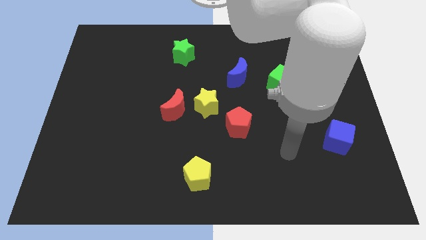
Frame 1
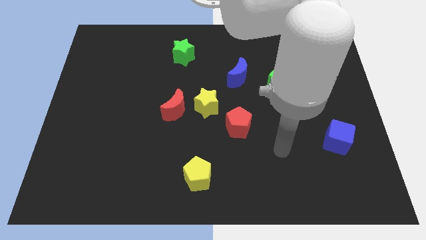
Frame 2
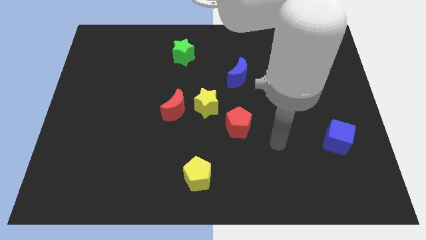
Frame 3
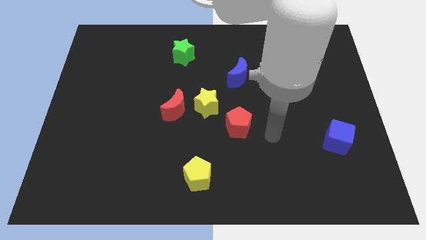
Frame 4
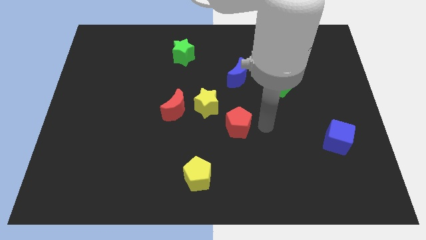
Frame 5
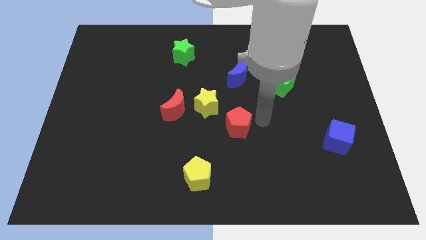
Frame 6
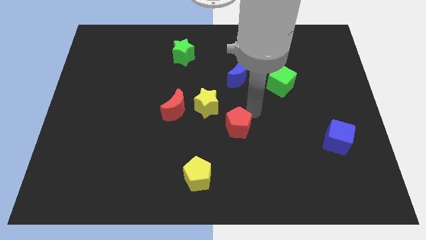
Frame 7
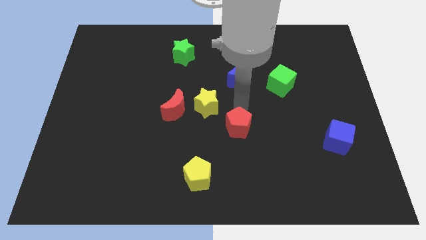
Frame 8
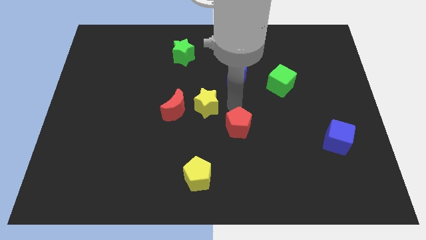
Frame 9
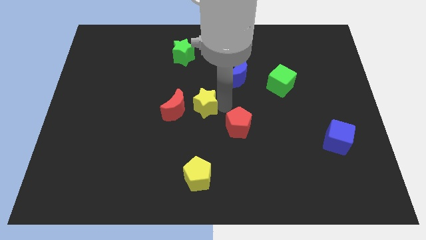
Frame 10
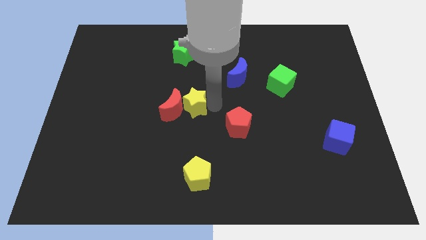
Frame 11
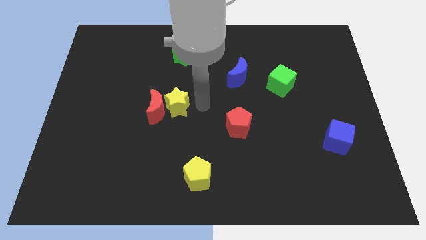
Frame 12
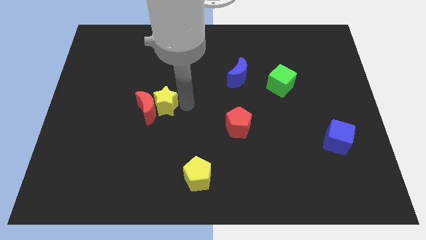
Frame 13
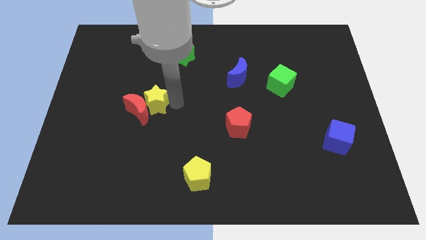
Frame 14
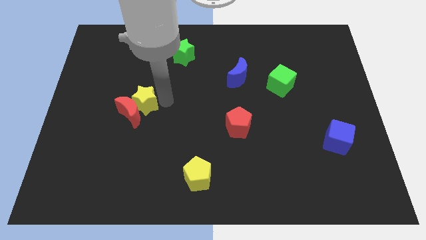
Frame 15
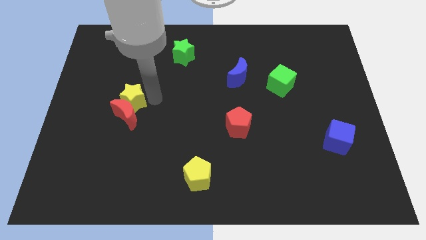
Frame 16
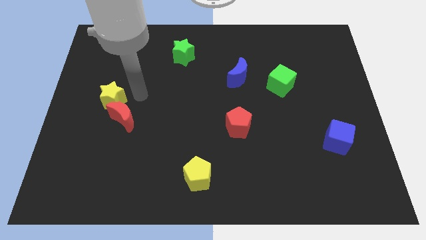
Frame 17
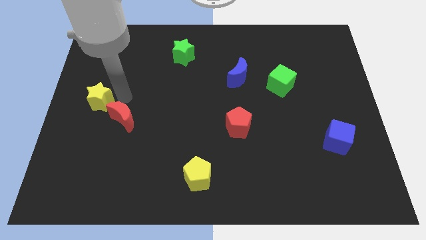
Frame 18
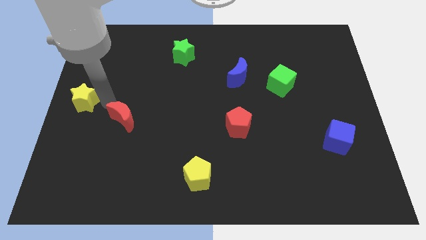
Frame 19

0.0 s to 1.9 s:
move the red moon away from the yellow star

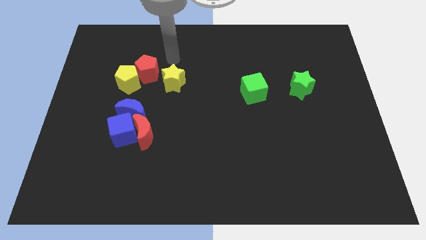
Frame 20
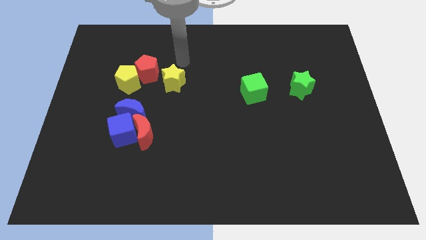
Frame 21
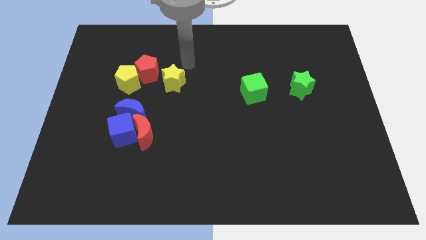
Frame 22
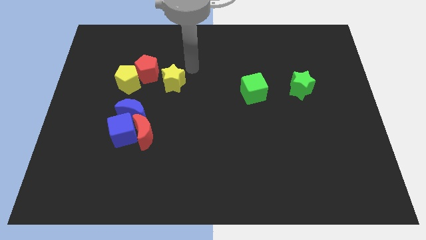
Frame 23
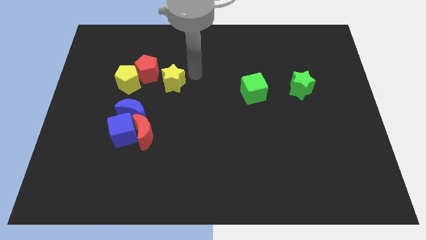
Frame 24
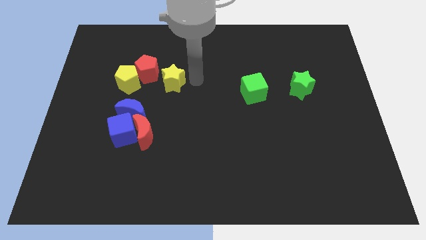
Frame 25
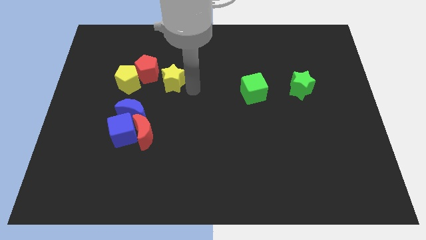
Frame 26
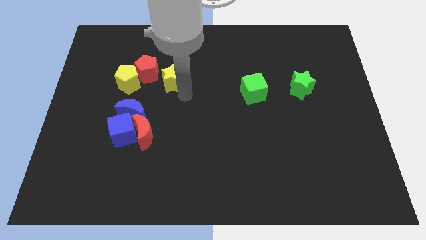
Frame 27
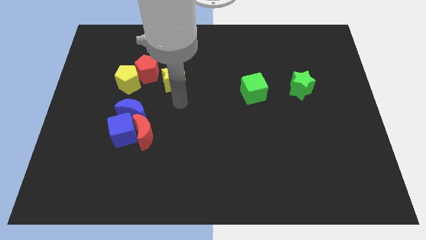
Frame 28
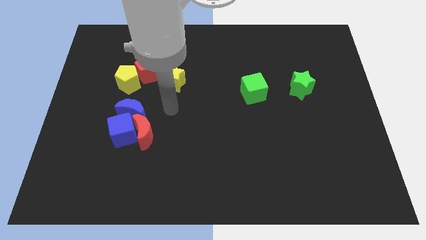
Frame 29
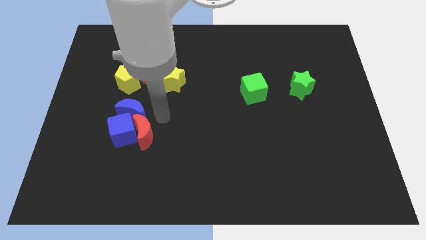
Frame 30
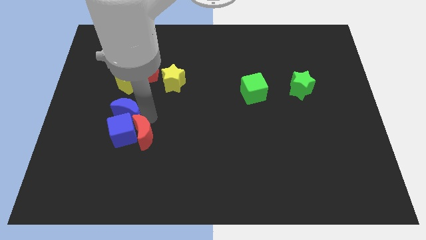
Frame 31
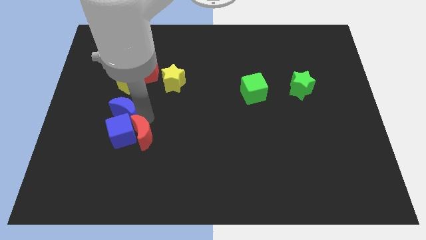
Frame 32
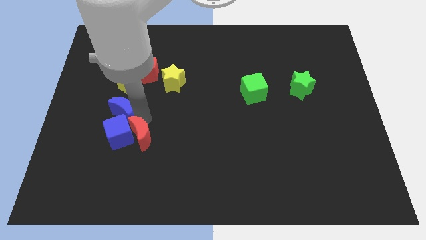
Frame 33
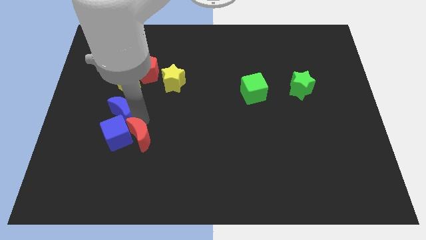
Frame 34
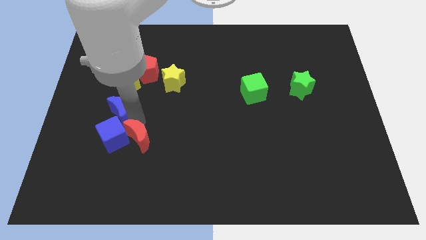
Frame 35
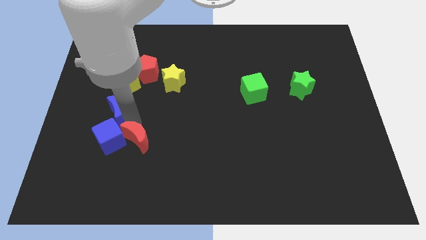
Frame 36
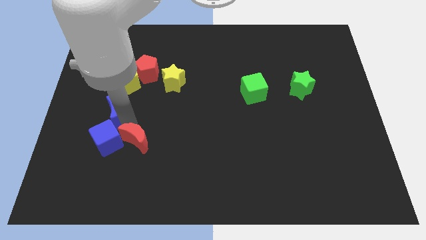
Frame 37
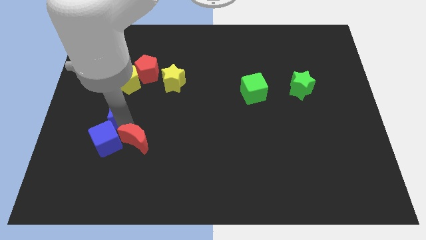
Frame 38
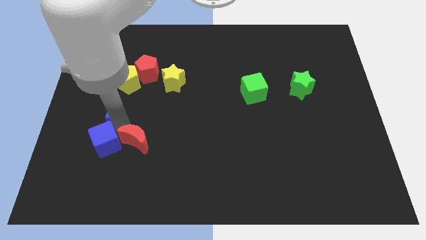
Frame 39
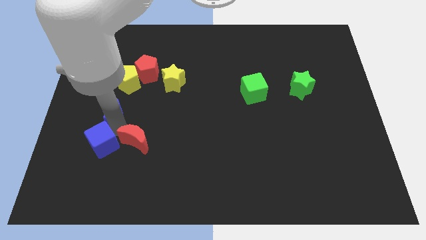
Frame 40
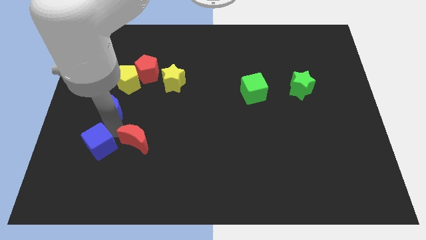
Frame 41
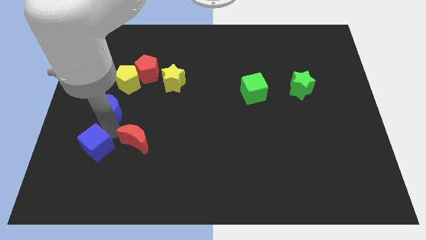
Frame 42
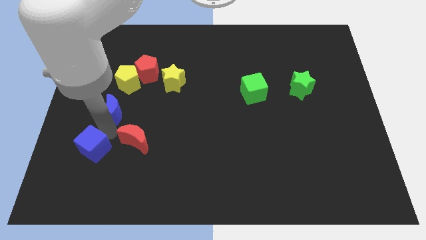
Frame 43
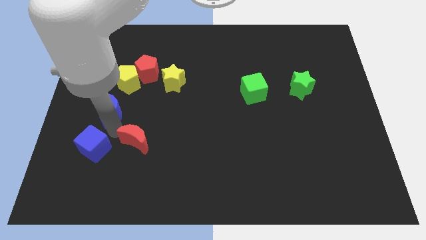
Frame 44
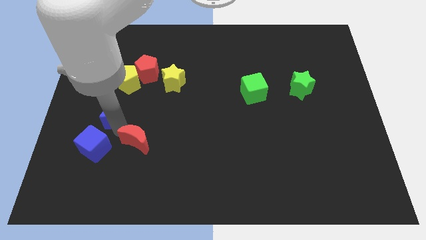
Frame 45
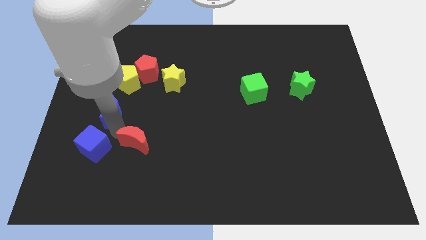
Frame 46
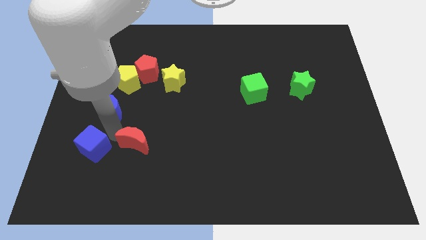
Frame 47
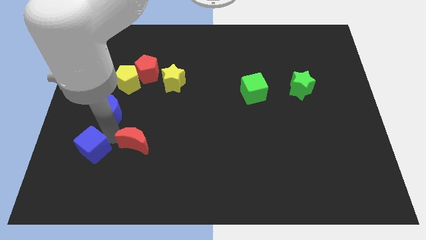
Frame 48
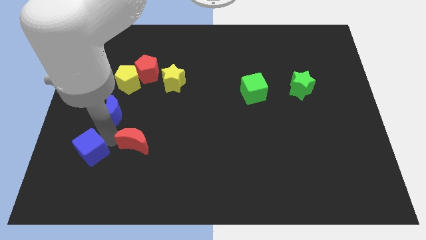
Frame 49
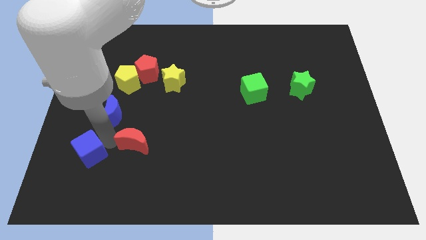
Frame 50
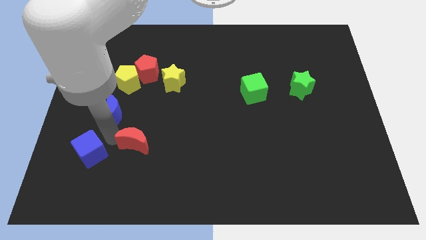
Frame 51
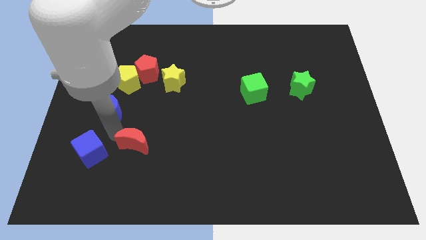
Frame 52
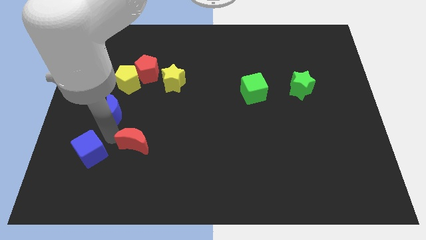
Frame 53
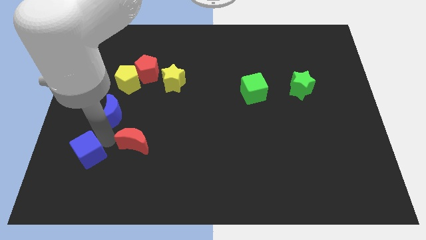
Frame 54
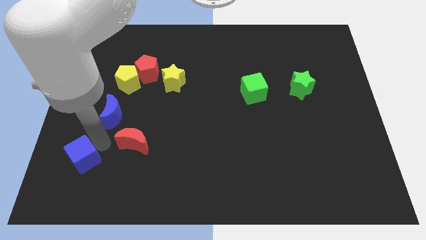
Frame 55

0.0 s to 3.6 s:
pull the blue cube apart from the red moon and blue moon

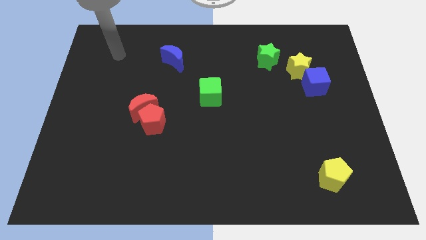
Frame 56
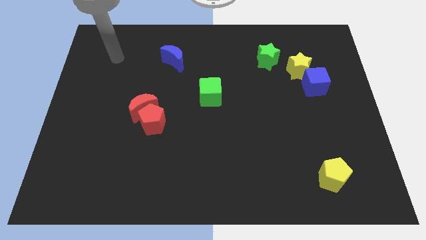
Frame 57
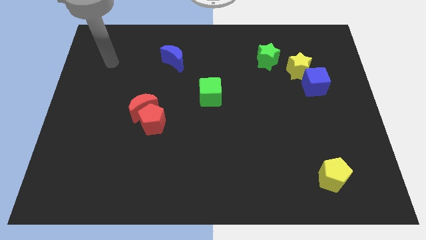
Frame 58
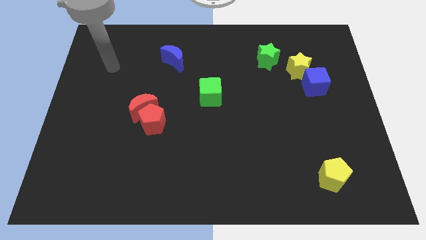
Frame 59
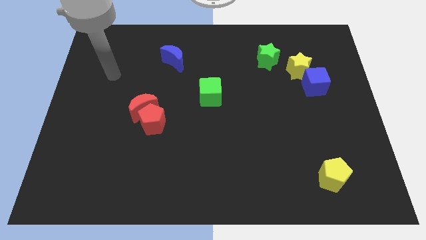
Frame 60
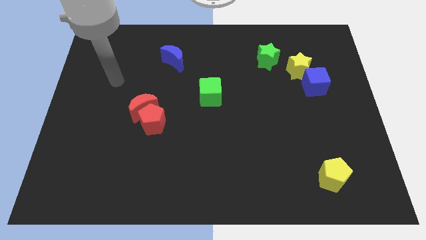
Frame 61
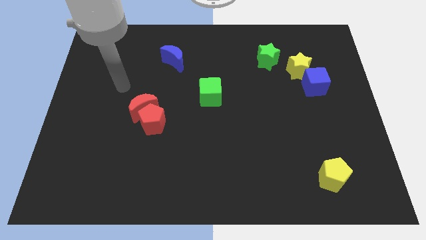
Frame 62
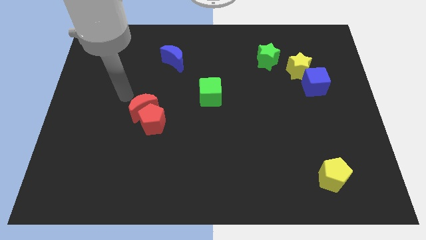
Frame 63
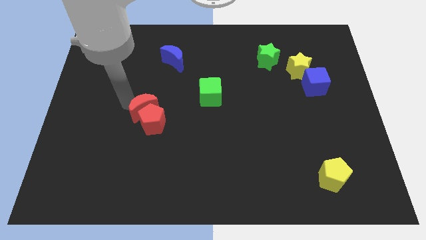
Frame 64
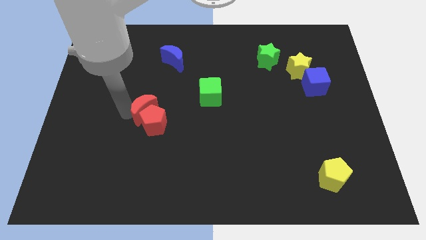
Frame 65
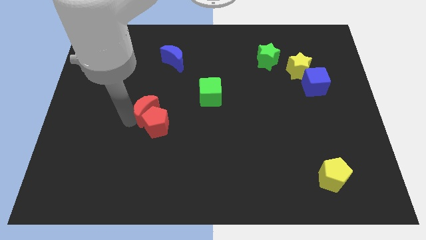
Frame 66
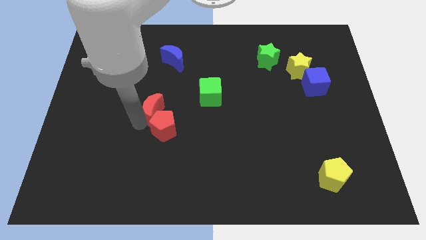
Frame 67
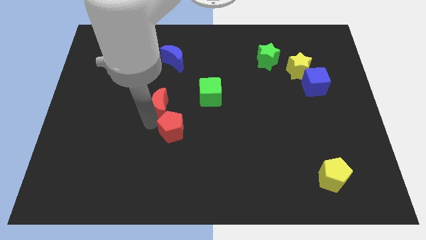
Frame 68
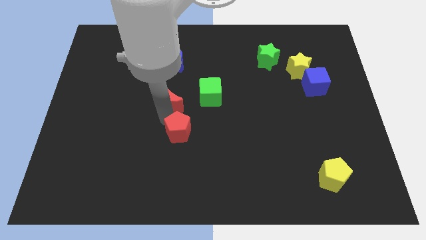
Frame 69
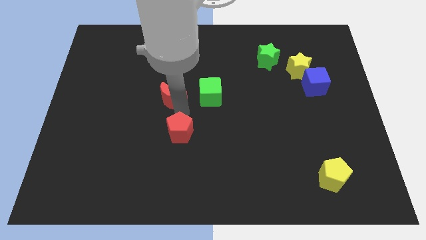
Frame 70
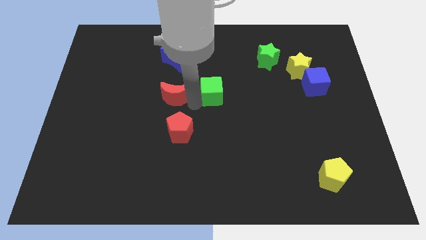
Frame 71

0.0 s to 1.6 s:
separate the red moon from the red pentagon

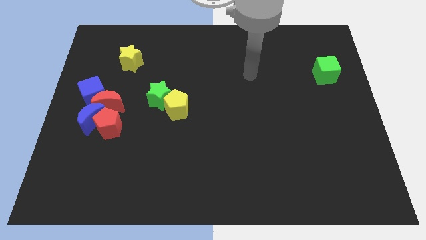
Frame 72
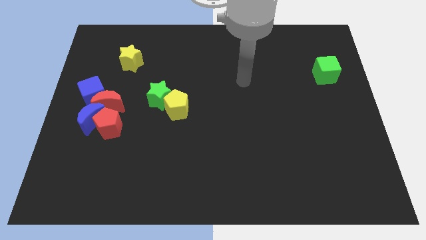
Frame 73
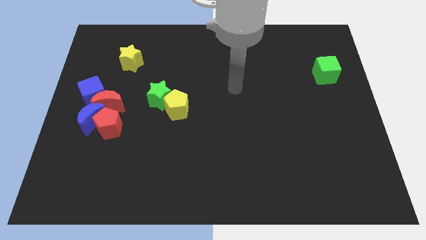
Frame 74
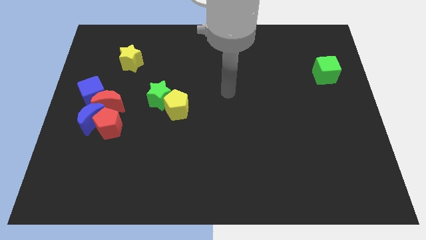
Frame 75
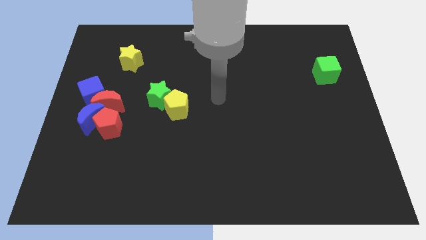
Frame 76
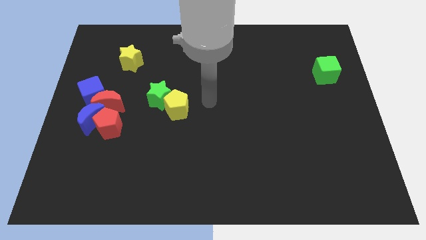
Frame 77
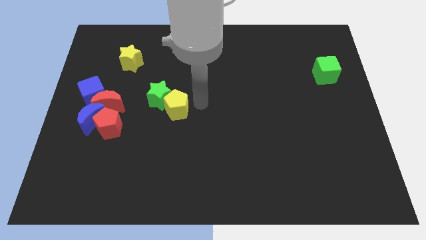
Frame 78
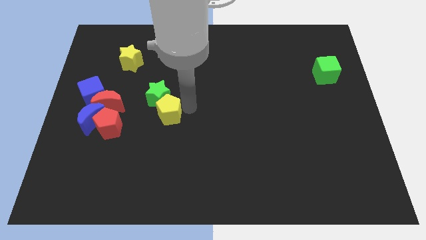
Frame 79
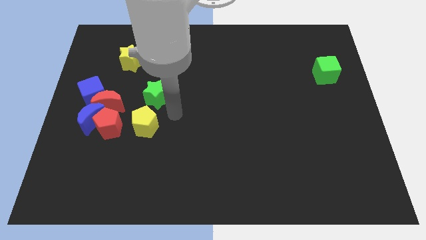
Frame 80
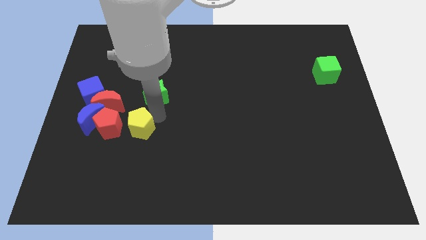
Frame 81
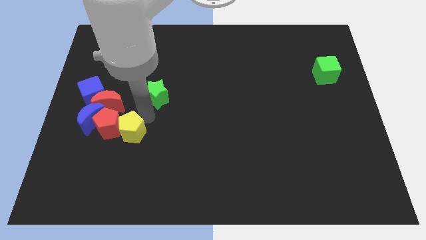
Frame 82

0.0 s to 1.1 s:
move the green star away from the yellow pentagon

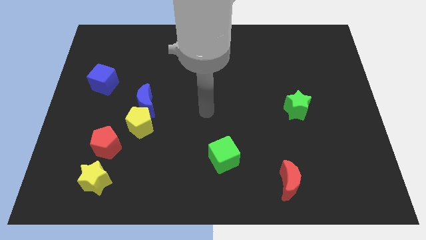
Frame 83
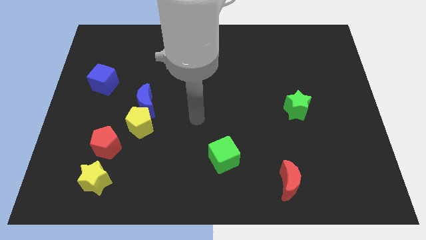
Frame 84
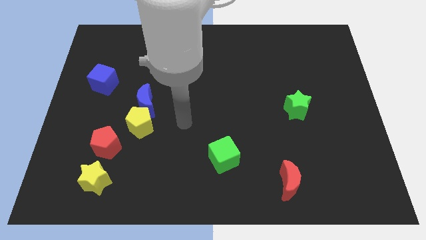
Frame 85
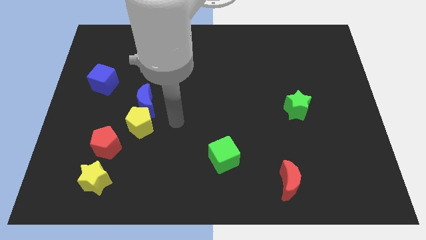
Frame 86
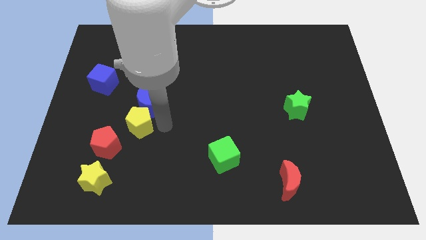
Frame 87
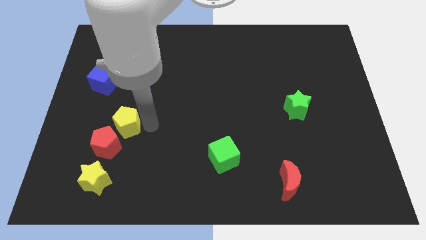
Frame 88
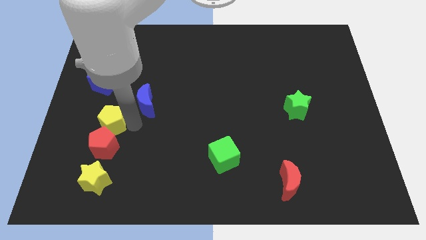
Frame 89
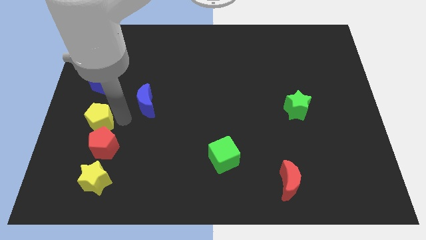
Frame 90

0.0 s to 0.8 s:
pull the blue moon apart from the yellow pentagon

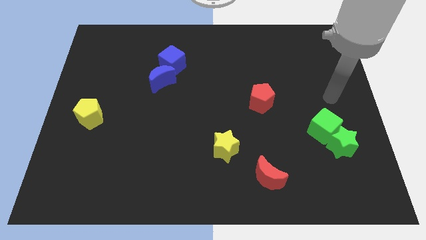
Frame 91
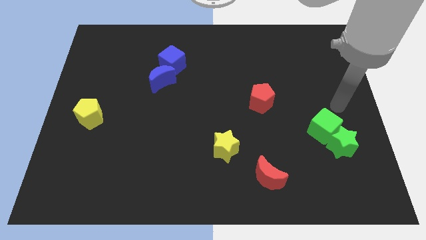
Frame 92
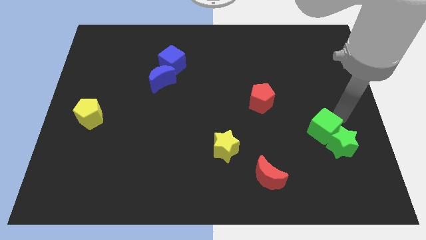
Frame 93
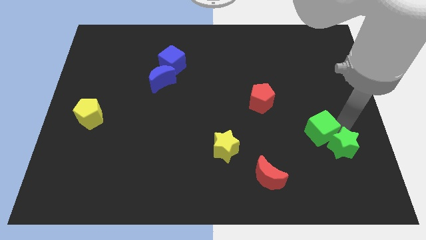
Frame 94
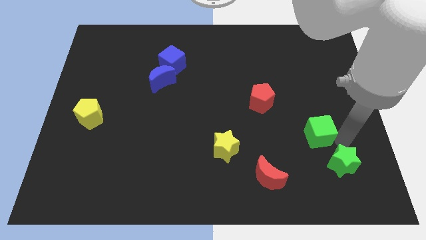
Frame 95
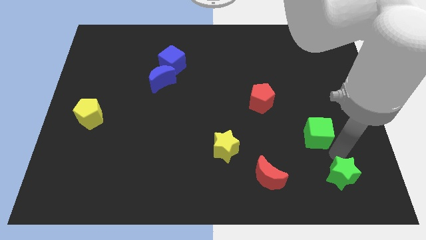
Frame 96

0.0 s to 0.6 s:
pull the green cube apart from the green star
